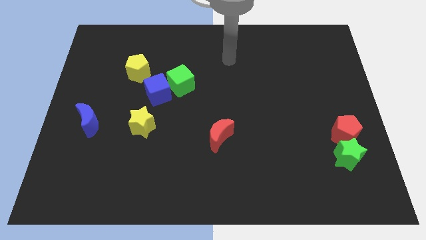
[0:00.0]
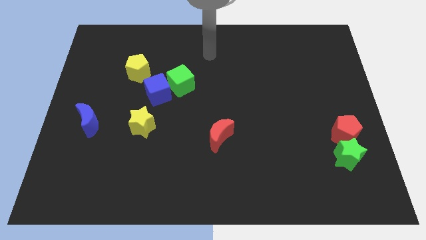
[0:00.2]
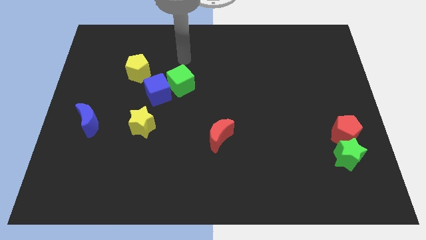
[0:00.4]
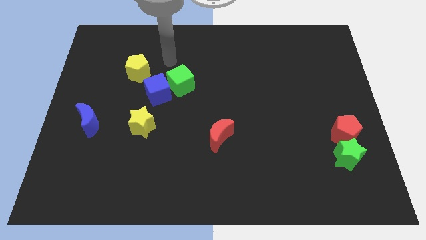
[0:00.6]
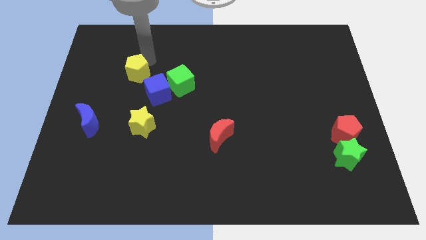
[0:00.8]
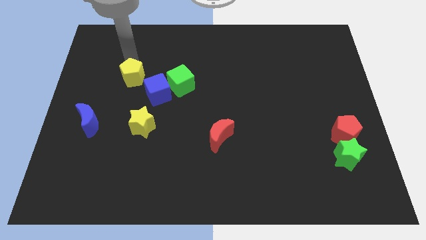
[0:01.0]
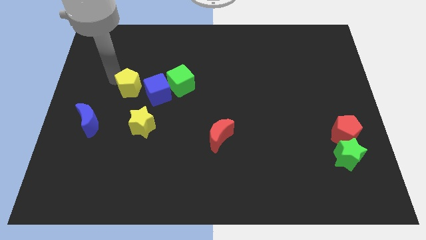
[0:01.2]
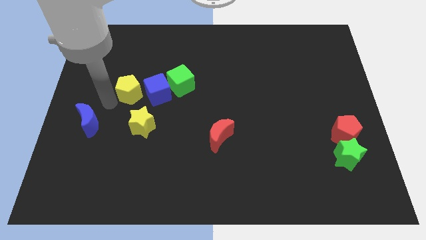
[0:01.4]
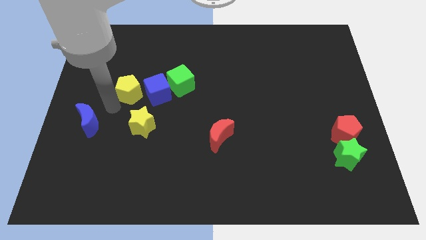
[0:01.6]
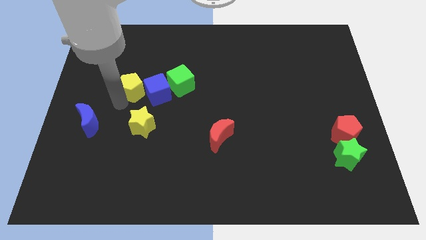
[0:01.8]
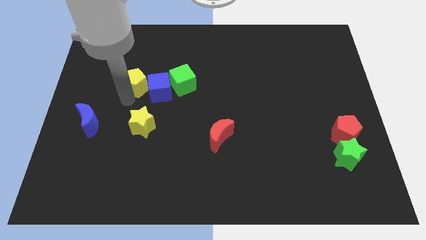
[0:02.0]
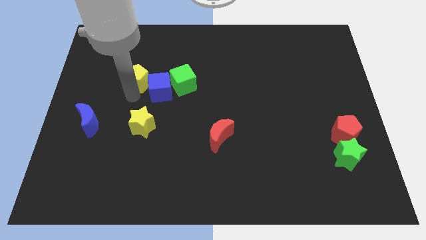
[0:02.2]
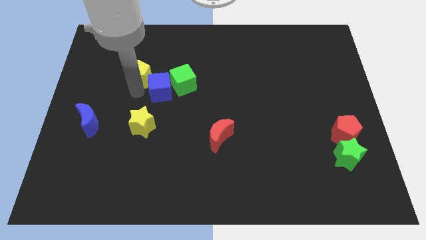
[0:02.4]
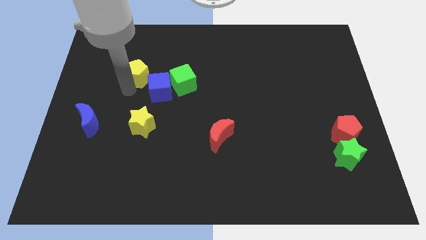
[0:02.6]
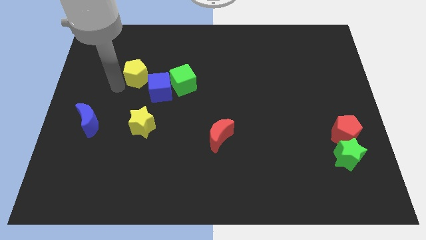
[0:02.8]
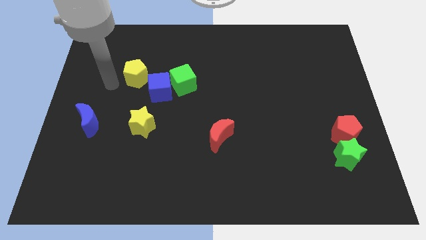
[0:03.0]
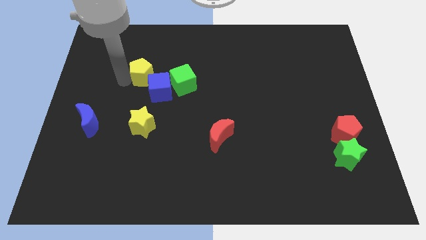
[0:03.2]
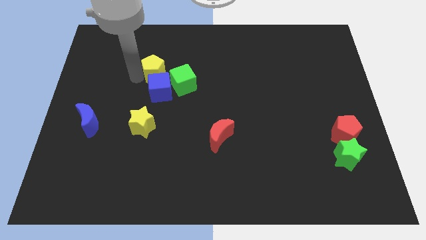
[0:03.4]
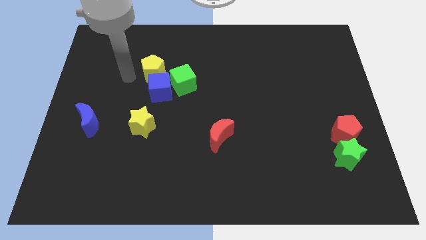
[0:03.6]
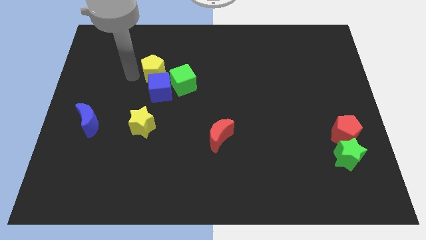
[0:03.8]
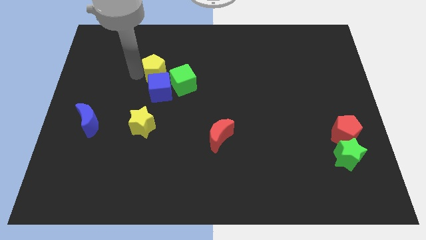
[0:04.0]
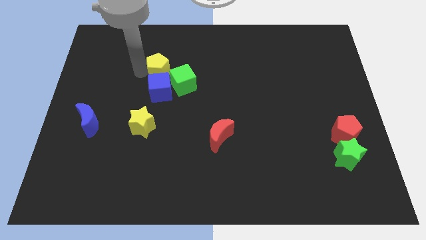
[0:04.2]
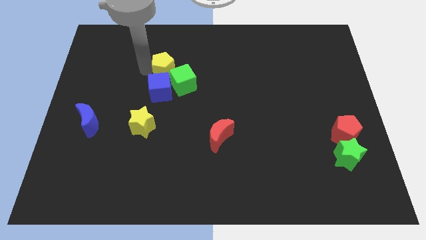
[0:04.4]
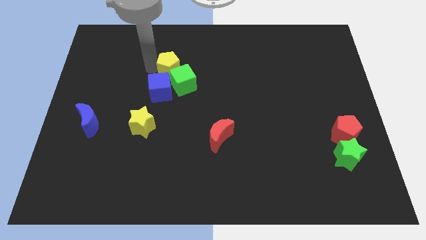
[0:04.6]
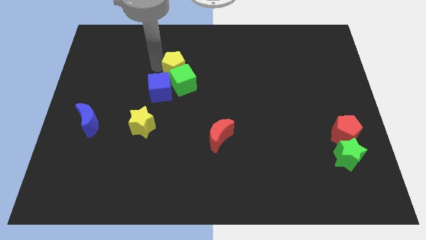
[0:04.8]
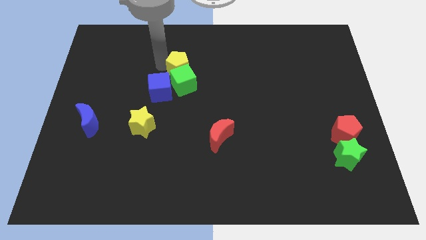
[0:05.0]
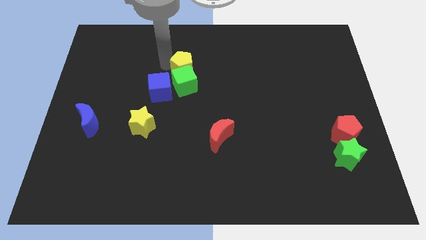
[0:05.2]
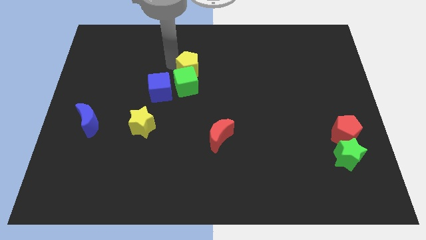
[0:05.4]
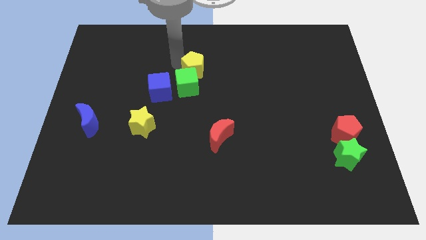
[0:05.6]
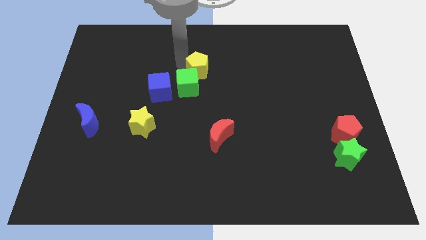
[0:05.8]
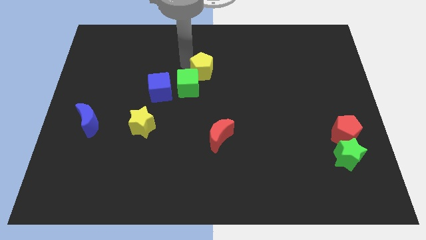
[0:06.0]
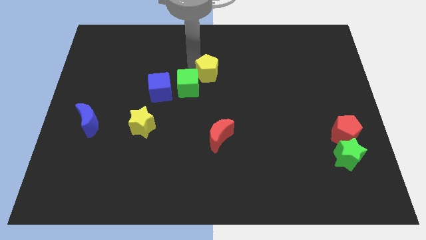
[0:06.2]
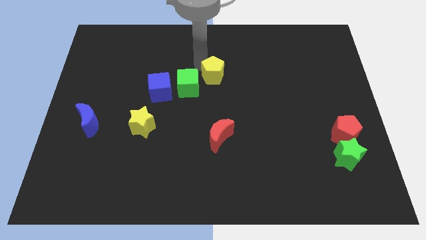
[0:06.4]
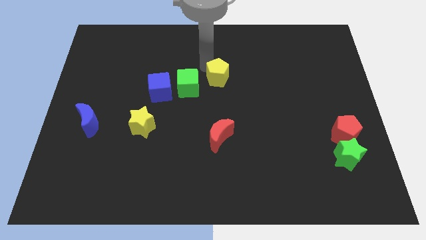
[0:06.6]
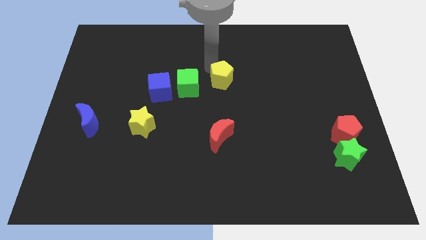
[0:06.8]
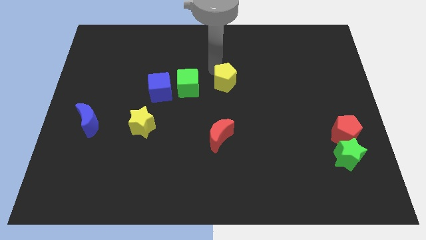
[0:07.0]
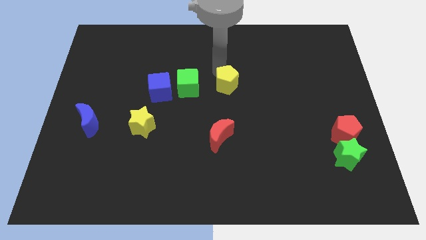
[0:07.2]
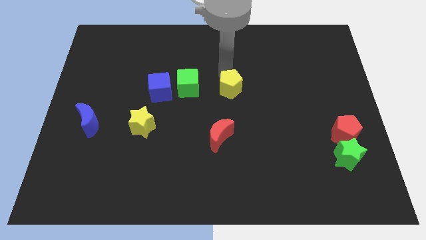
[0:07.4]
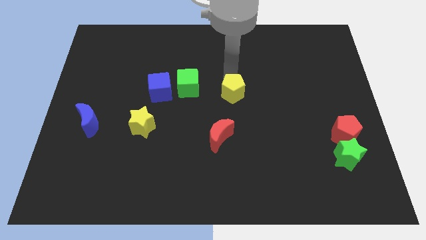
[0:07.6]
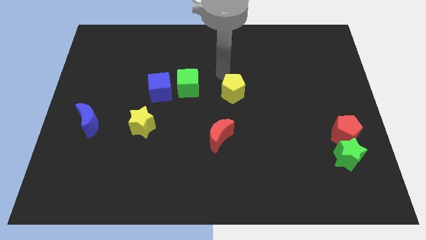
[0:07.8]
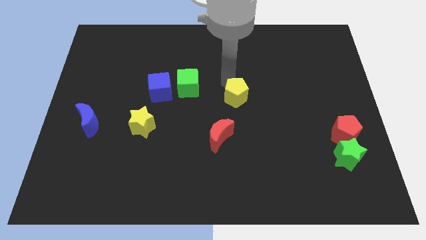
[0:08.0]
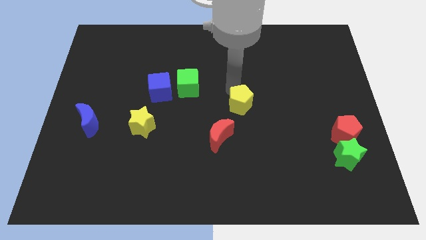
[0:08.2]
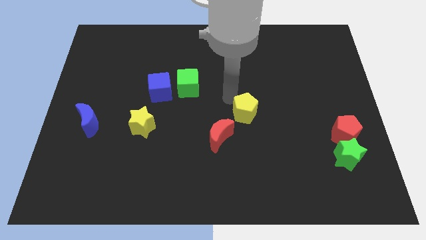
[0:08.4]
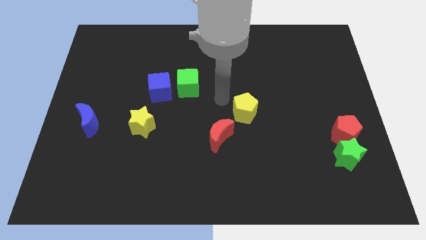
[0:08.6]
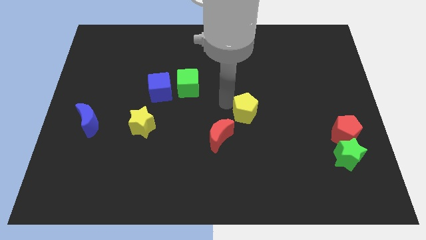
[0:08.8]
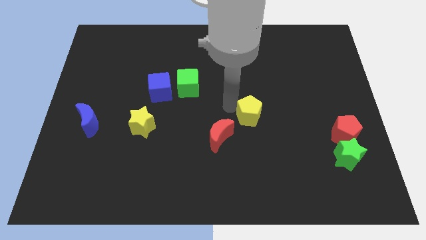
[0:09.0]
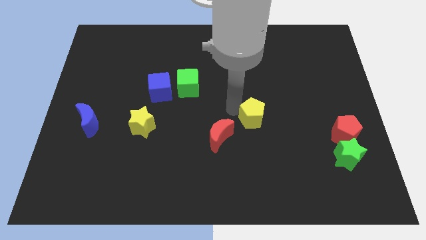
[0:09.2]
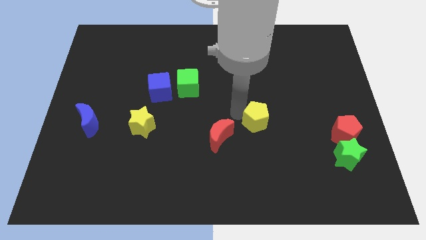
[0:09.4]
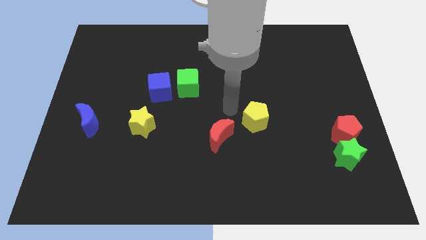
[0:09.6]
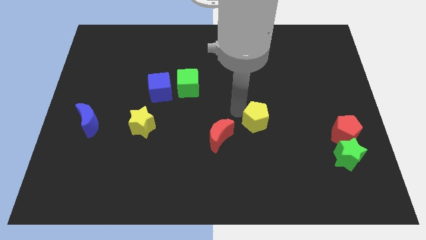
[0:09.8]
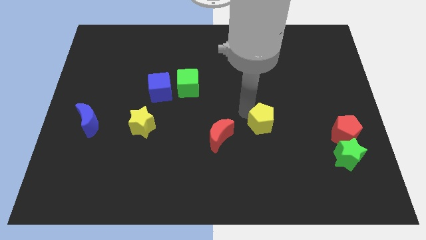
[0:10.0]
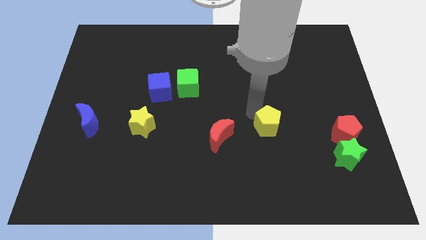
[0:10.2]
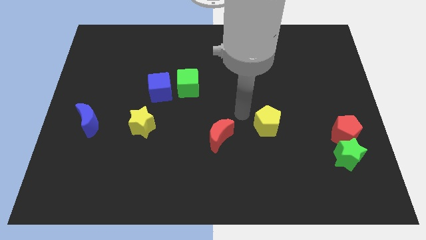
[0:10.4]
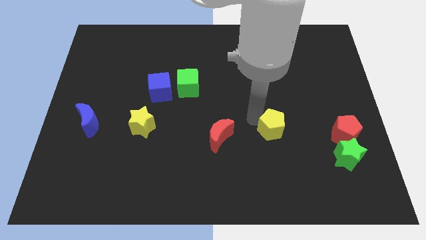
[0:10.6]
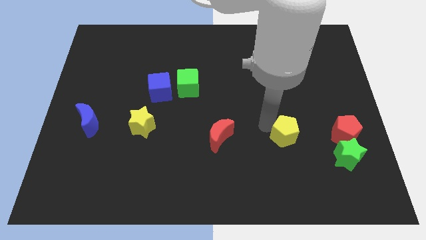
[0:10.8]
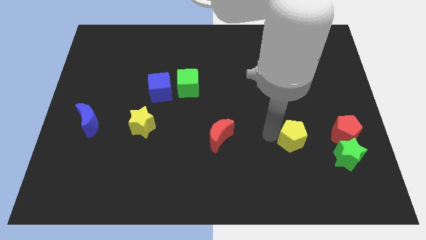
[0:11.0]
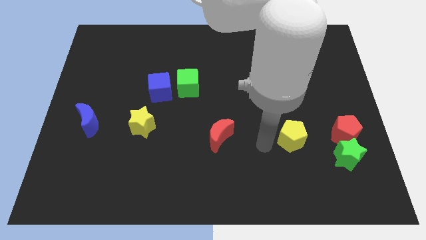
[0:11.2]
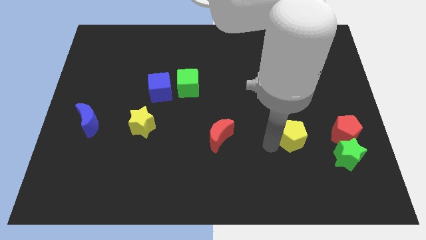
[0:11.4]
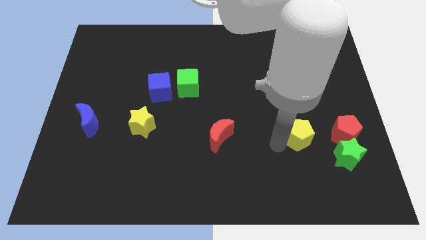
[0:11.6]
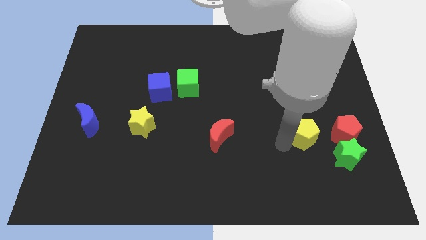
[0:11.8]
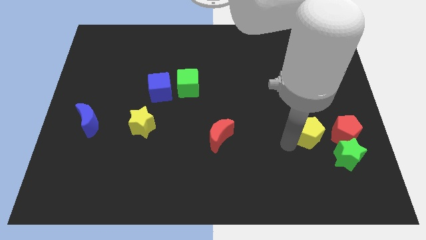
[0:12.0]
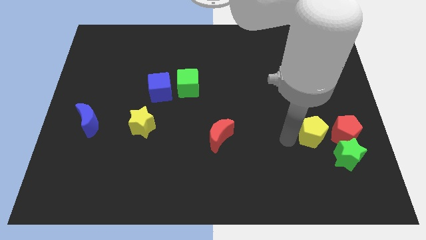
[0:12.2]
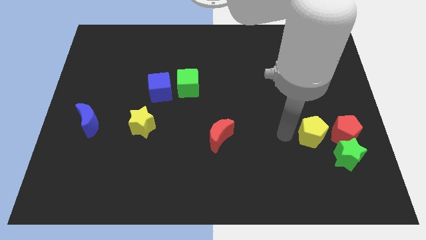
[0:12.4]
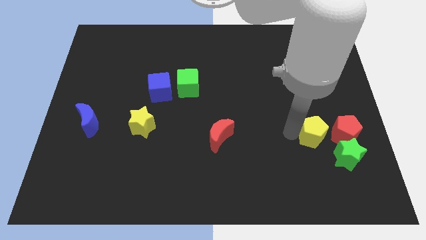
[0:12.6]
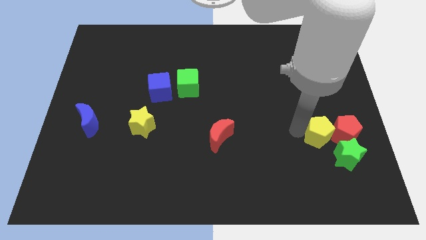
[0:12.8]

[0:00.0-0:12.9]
move the yellow pentagon towards the red pentagon
